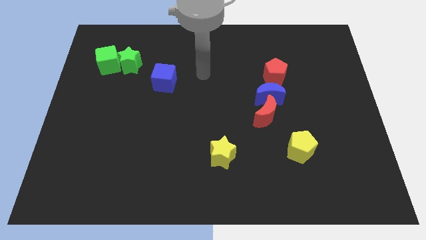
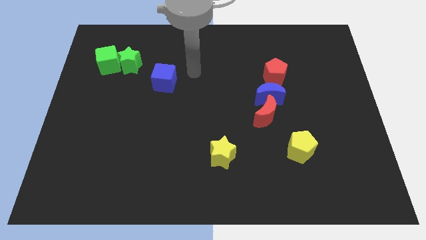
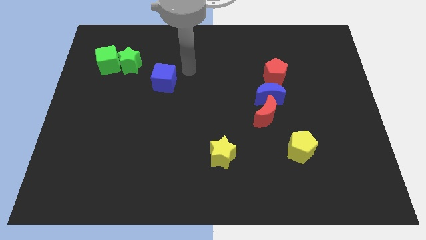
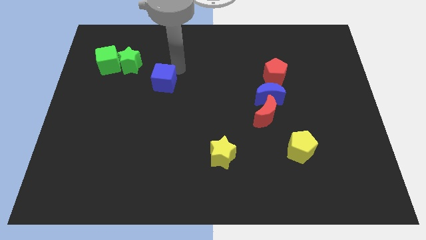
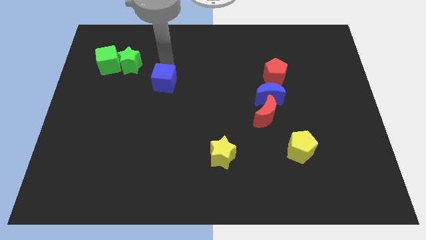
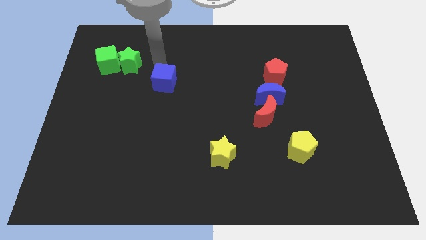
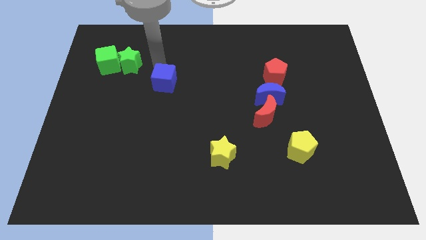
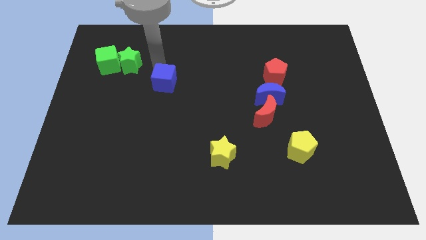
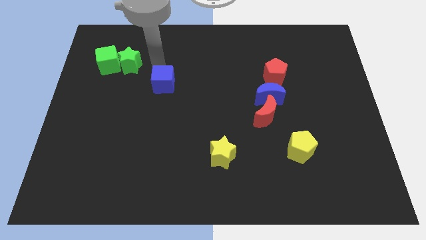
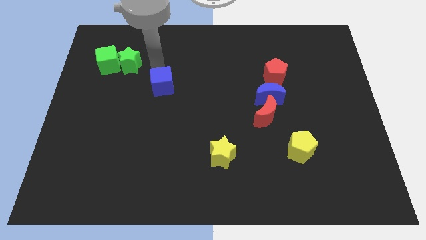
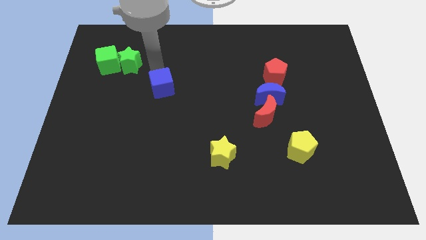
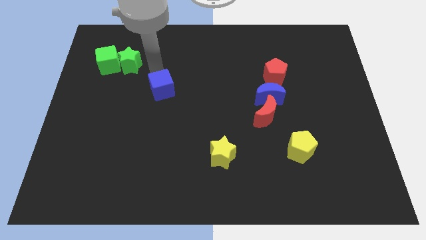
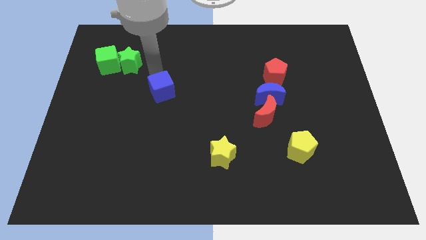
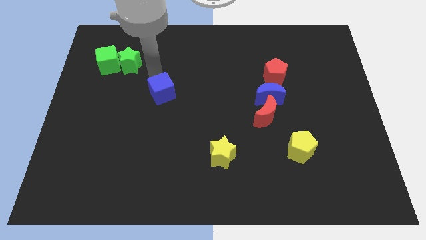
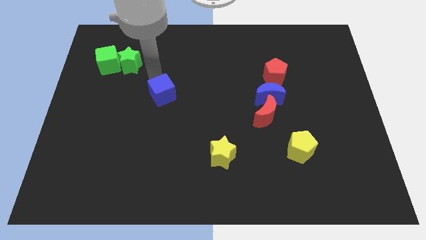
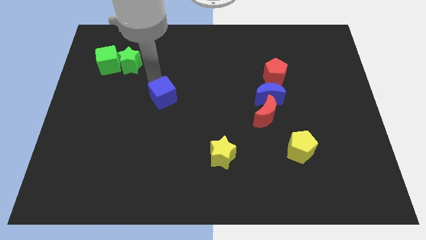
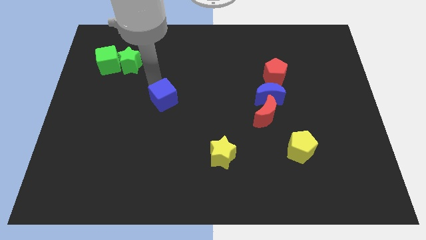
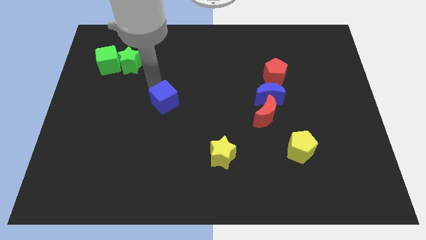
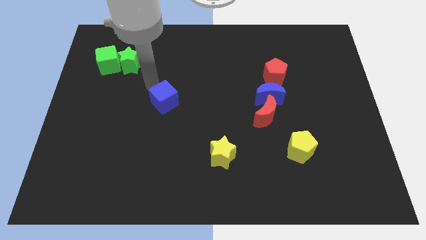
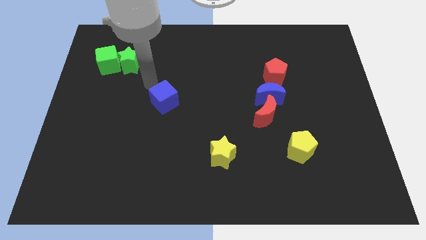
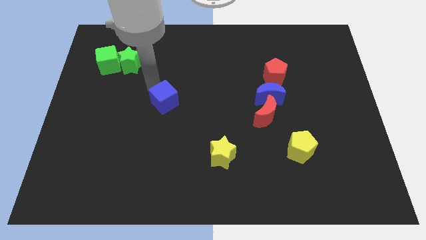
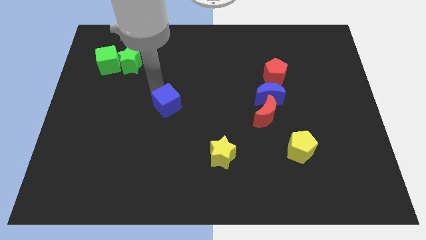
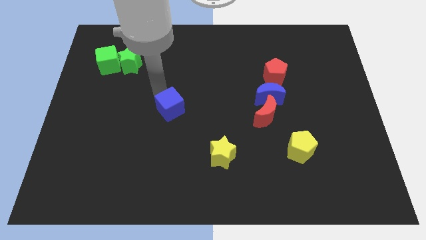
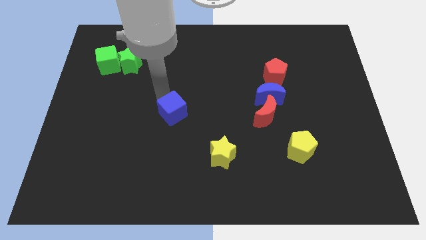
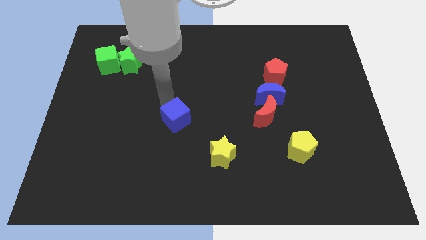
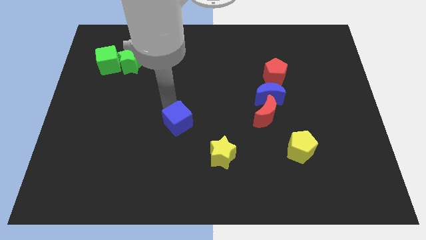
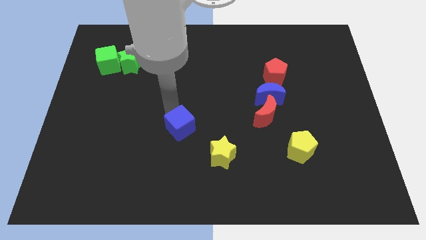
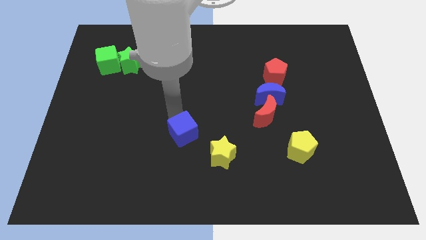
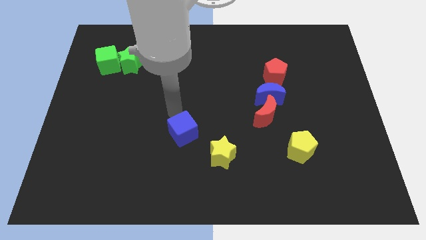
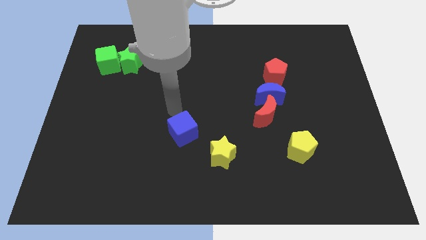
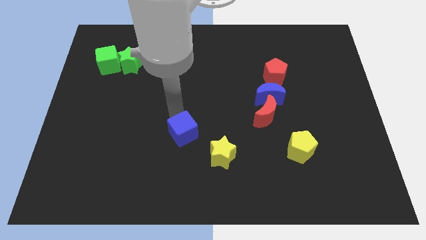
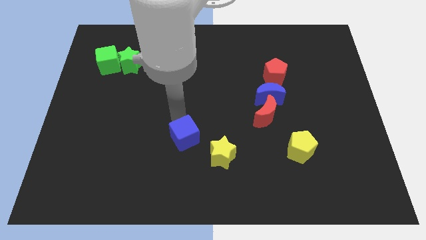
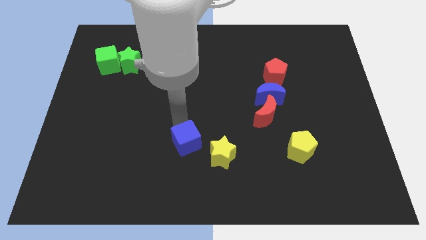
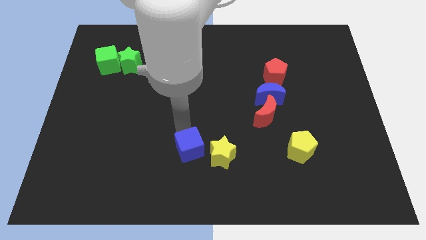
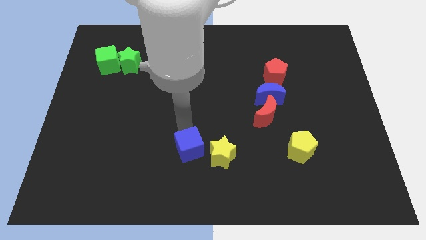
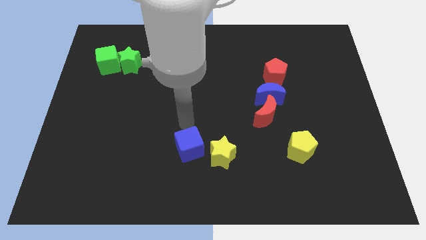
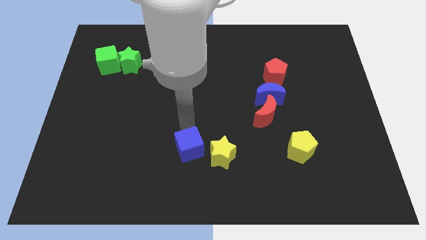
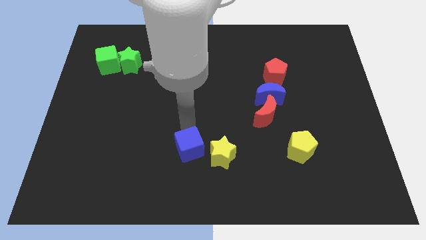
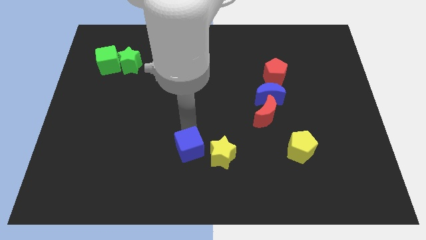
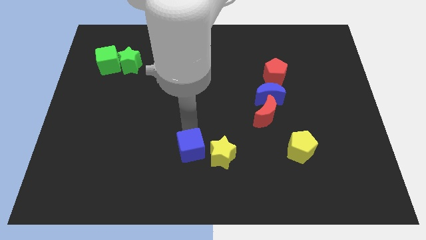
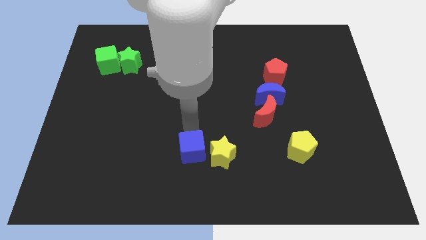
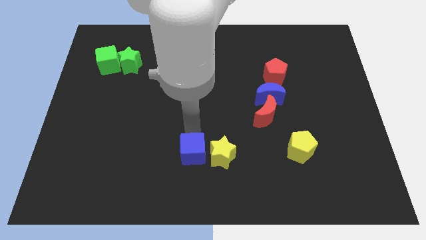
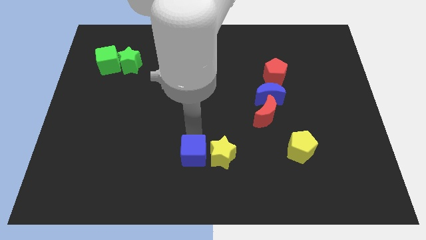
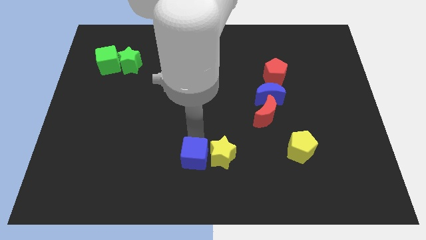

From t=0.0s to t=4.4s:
slide the blue cube to the bottom side

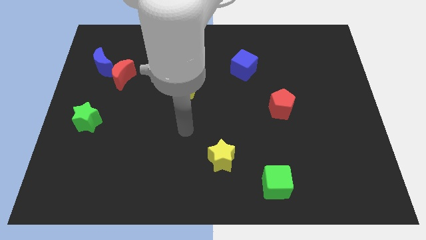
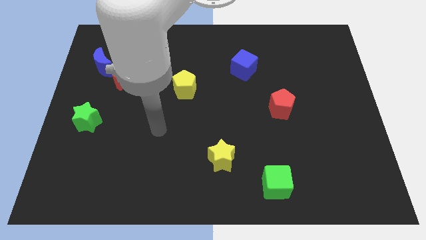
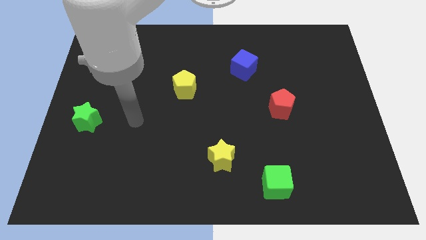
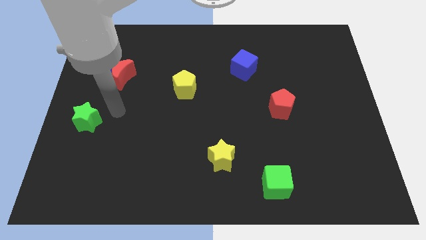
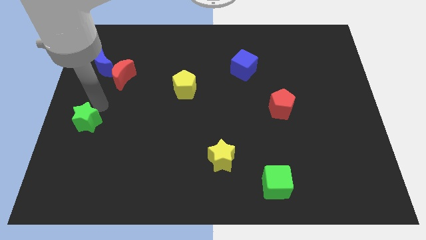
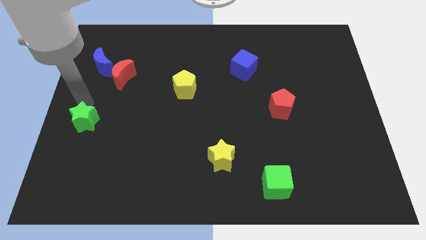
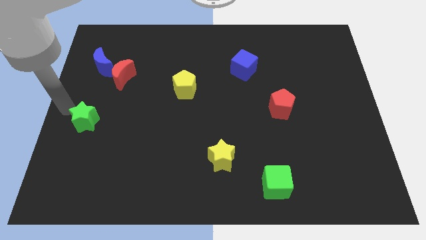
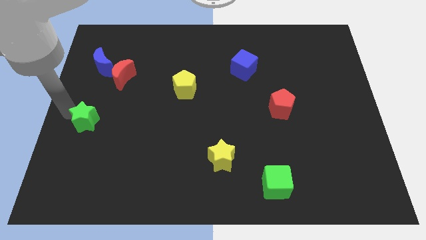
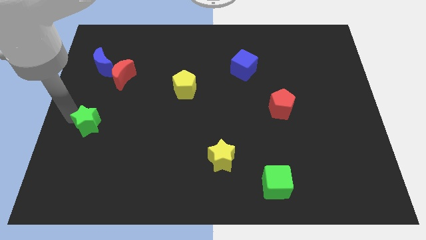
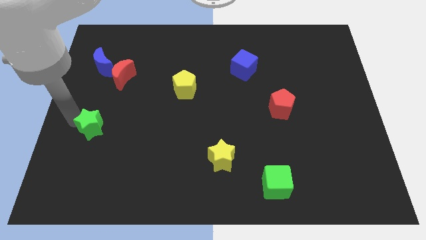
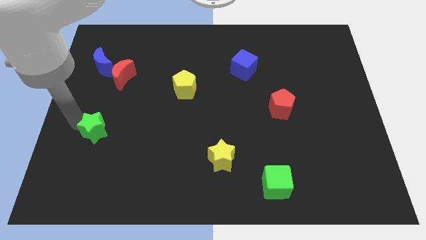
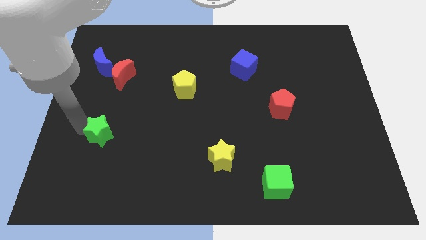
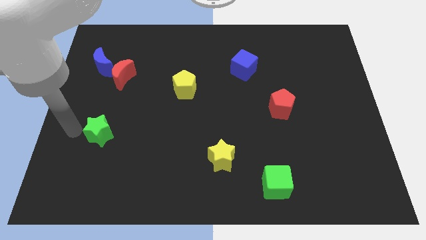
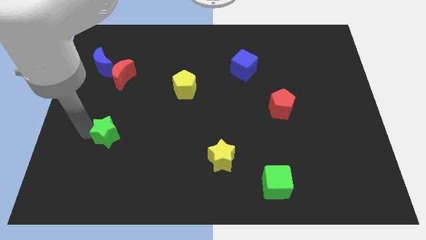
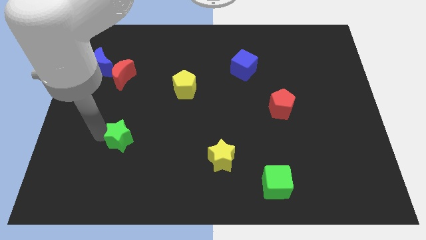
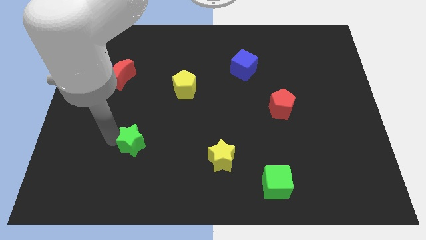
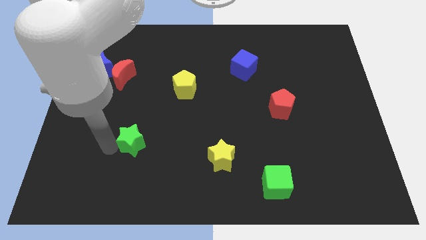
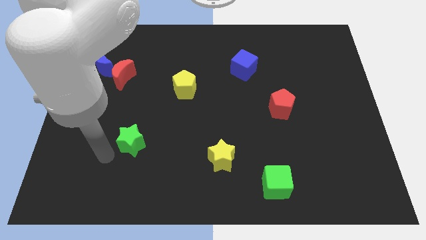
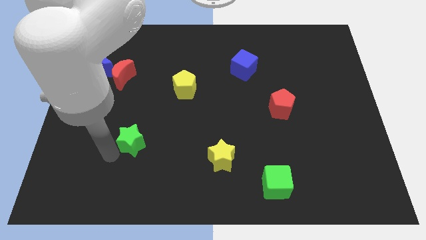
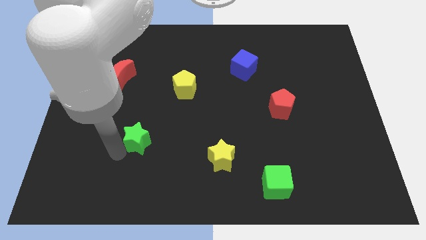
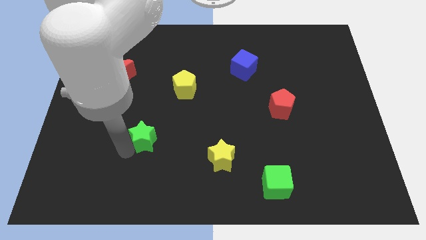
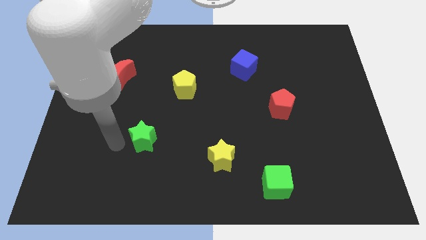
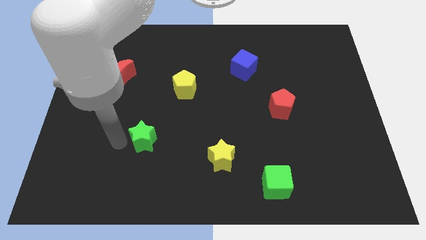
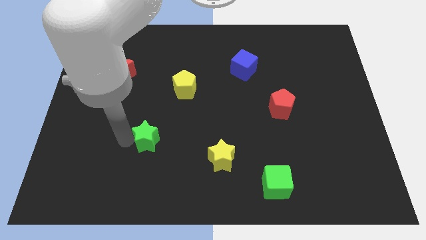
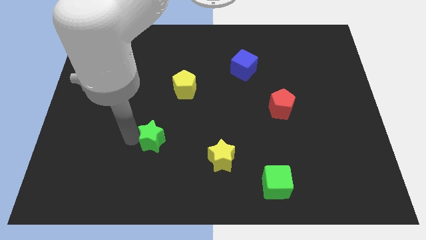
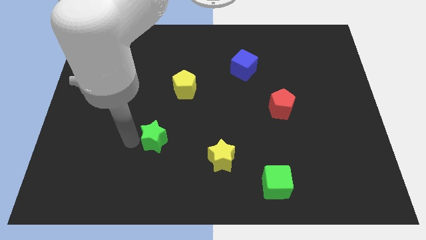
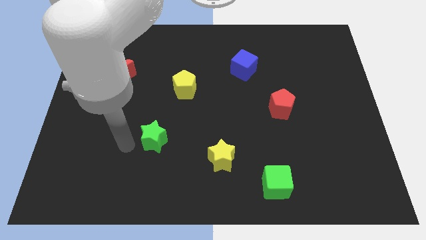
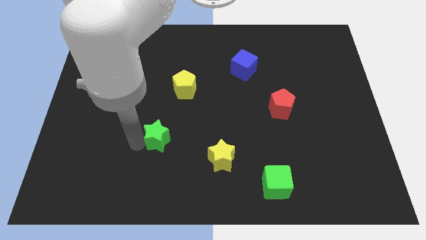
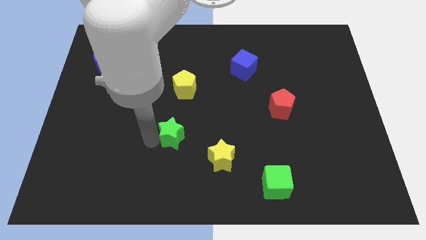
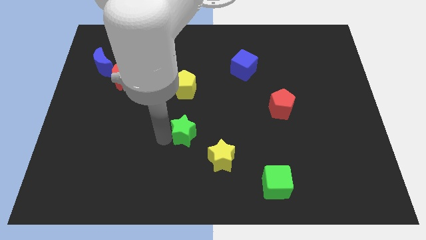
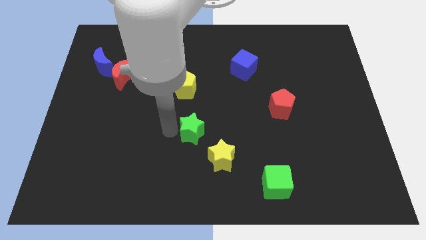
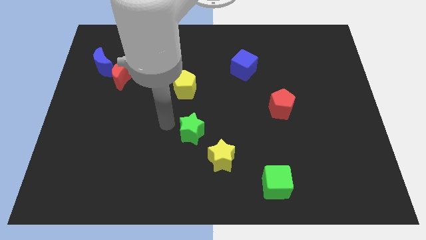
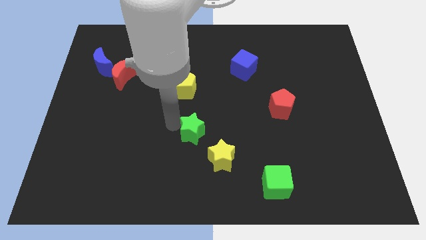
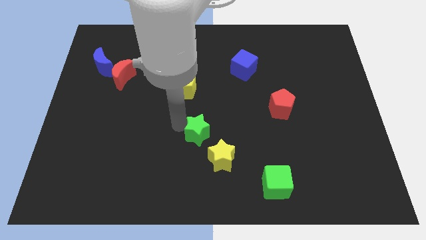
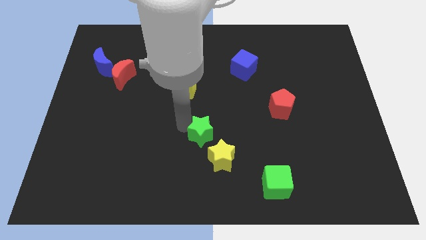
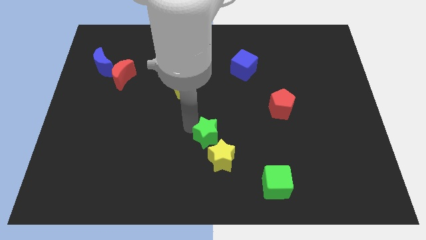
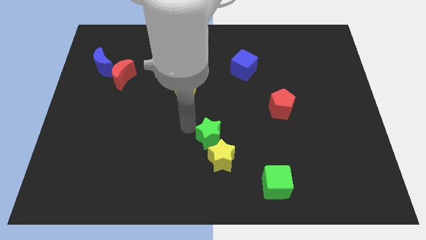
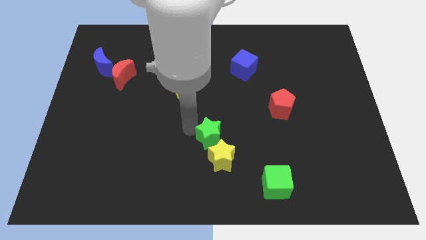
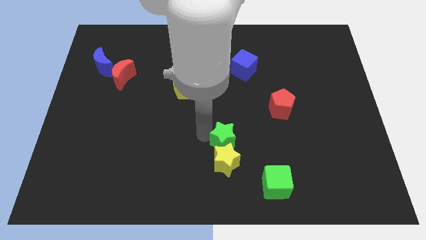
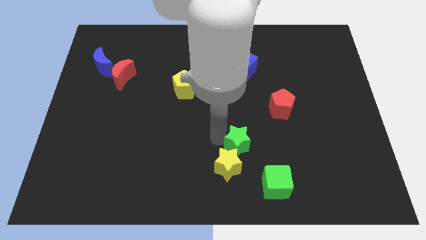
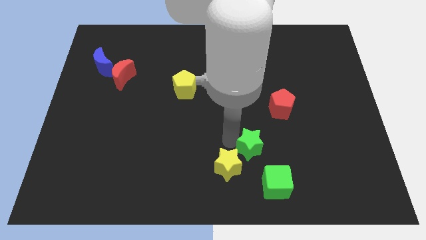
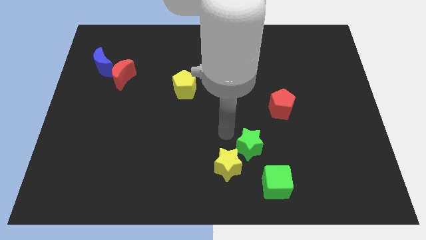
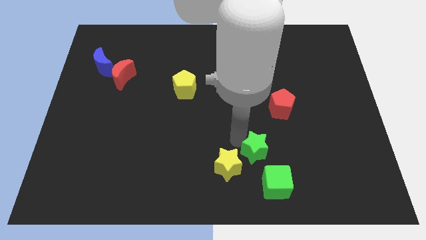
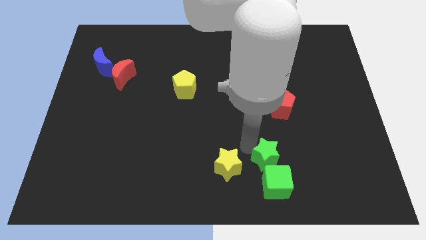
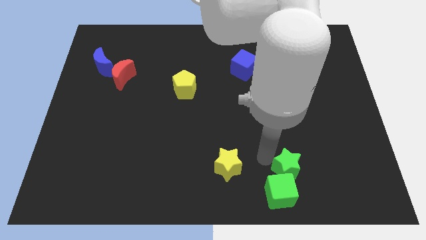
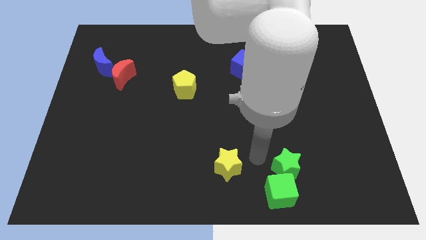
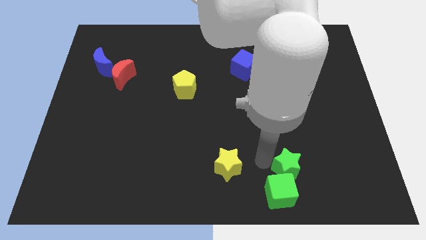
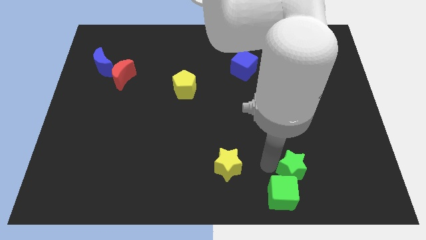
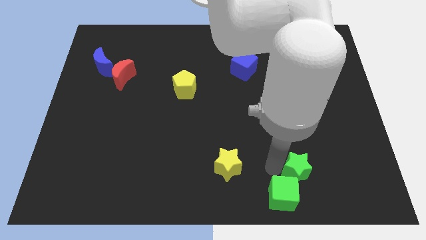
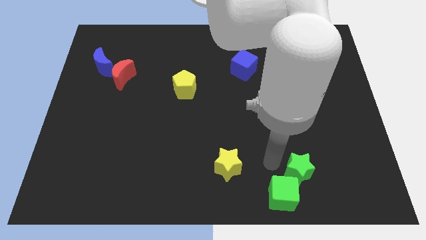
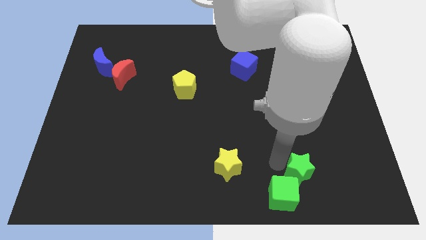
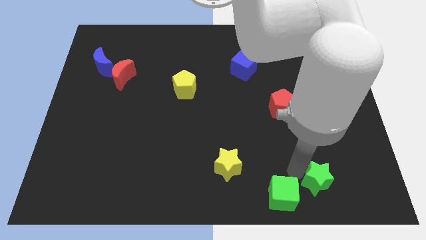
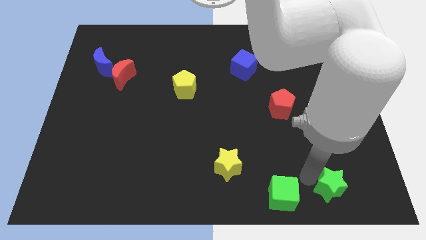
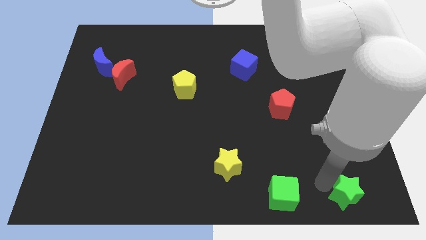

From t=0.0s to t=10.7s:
put the green star to the lower right corner
